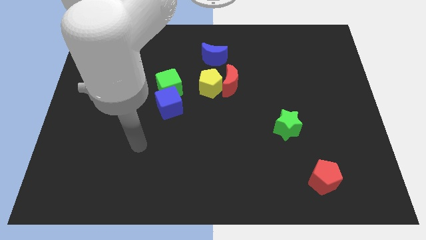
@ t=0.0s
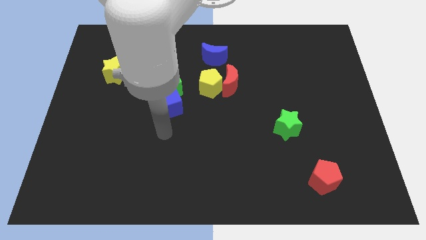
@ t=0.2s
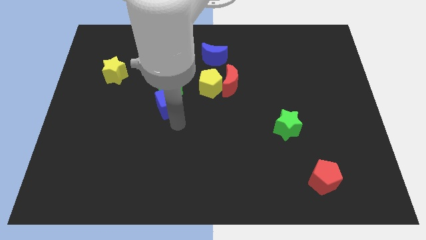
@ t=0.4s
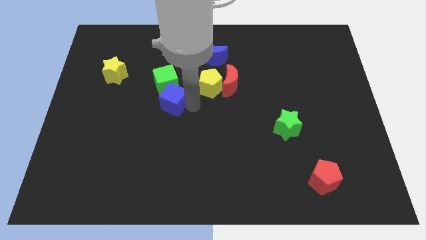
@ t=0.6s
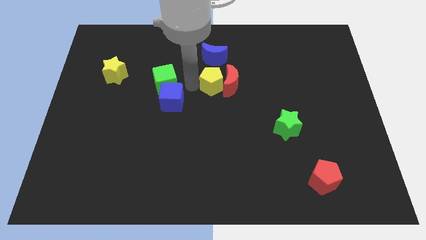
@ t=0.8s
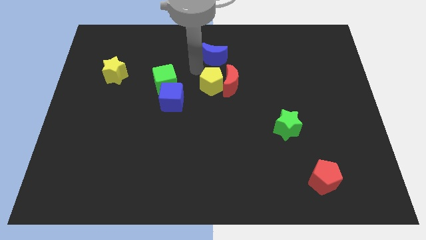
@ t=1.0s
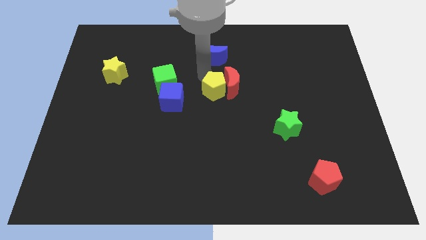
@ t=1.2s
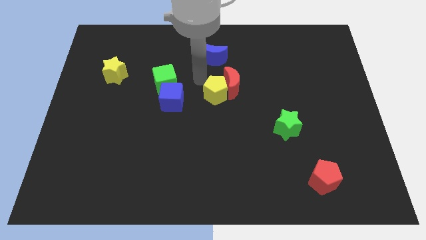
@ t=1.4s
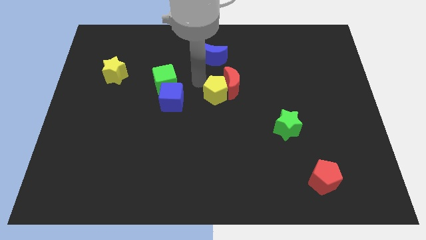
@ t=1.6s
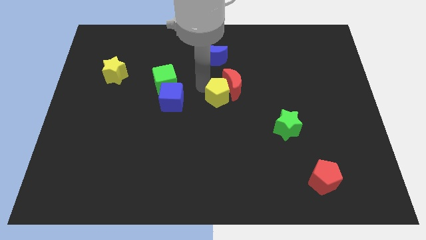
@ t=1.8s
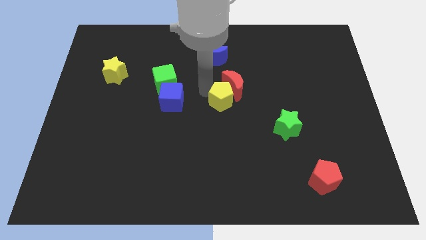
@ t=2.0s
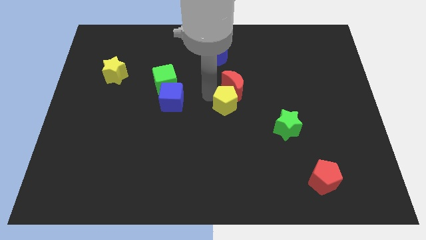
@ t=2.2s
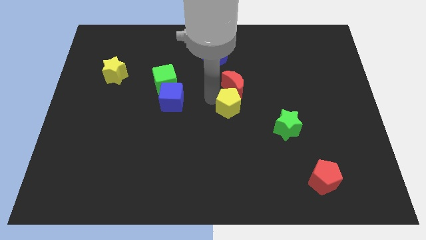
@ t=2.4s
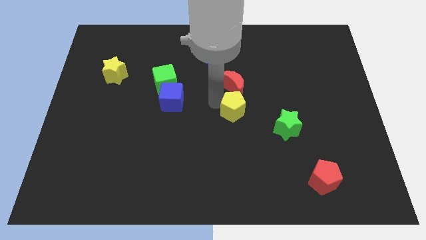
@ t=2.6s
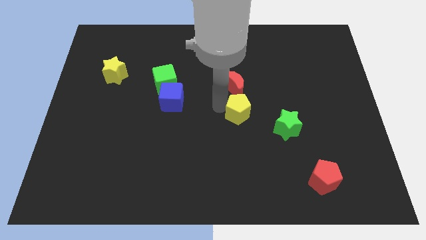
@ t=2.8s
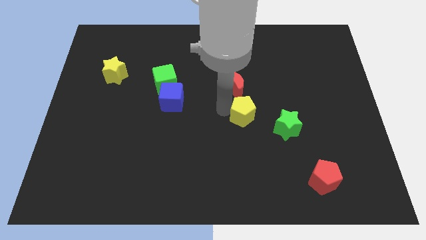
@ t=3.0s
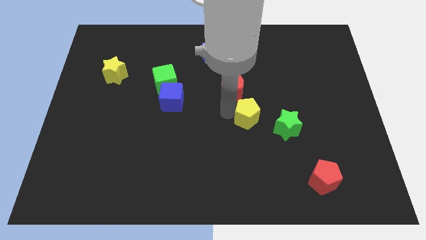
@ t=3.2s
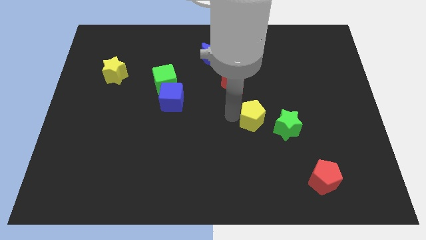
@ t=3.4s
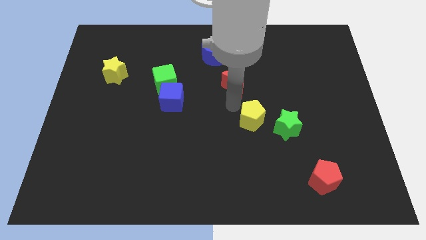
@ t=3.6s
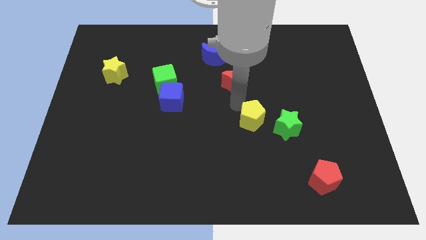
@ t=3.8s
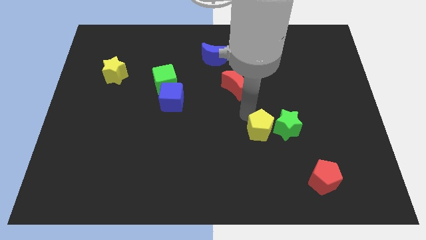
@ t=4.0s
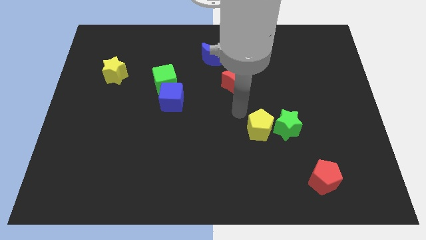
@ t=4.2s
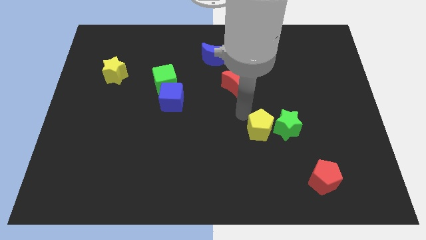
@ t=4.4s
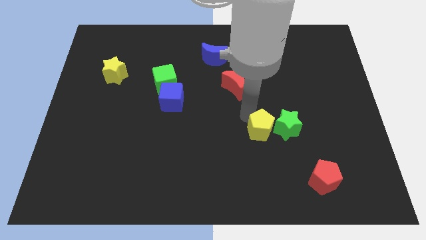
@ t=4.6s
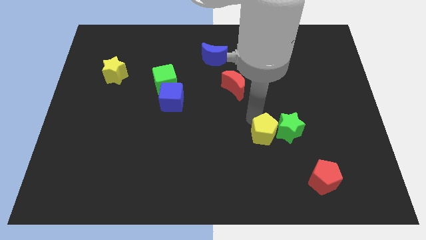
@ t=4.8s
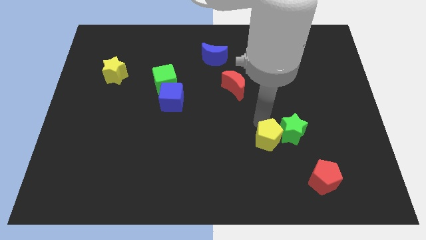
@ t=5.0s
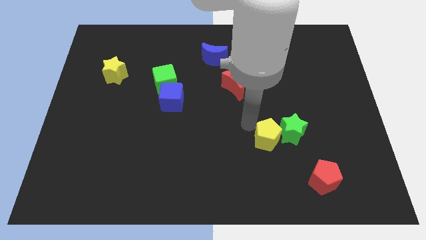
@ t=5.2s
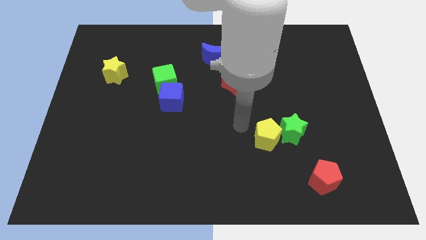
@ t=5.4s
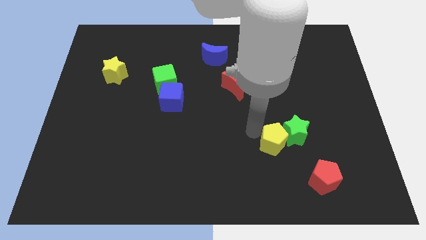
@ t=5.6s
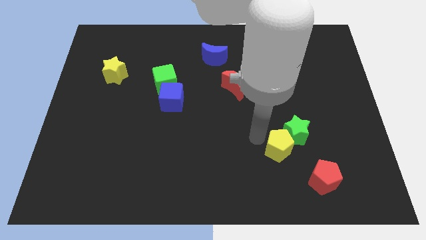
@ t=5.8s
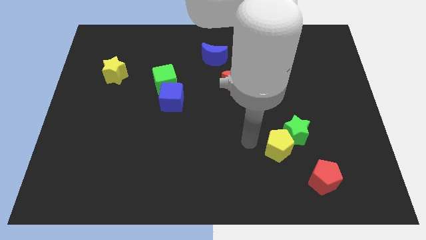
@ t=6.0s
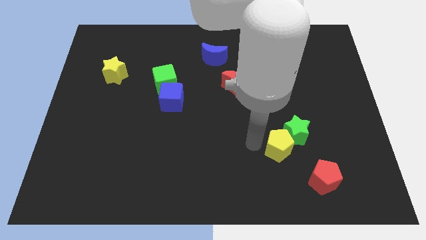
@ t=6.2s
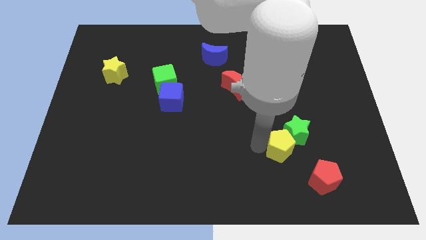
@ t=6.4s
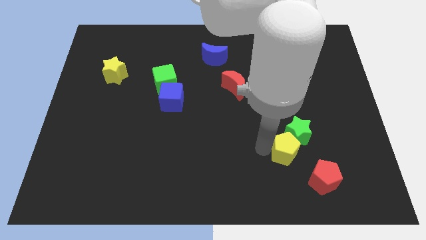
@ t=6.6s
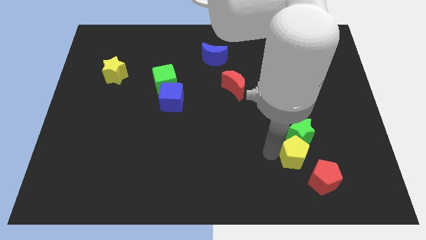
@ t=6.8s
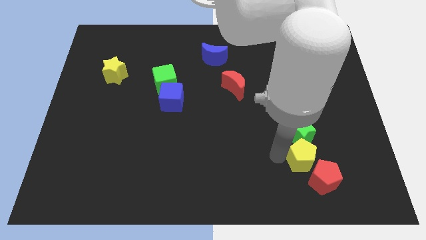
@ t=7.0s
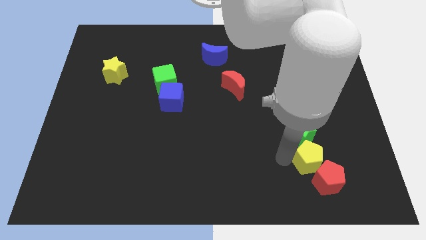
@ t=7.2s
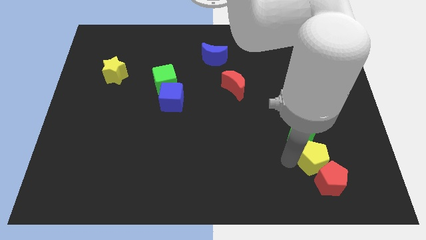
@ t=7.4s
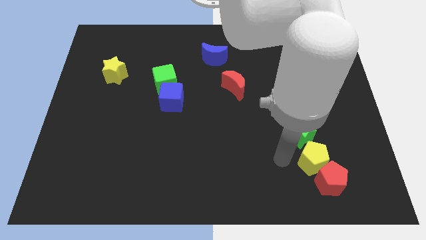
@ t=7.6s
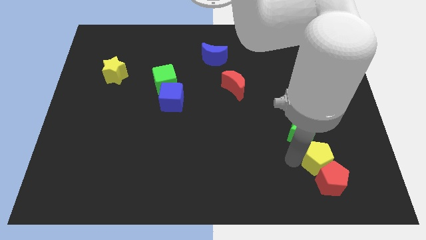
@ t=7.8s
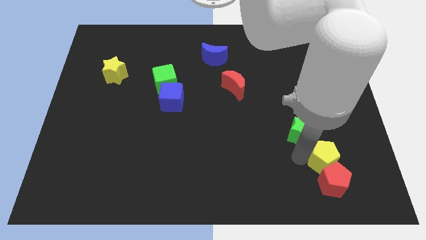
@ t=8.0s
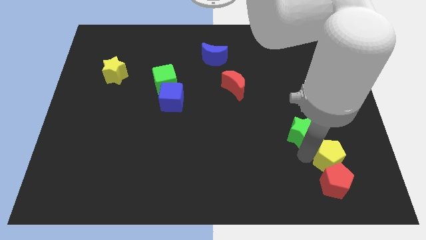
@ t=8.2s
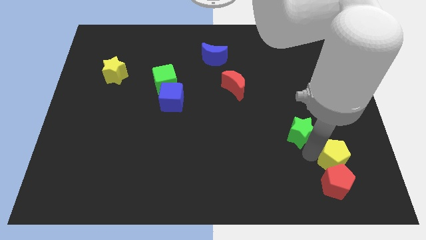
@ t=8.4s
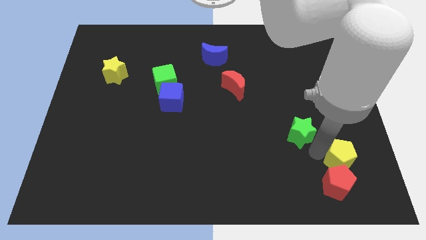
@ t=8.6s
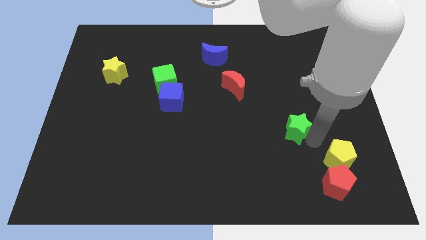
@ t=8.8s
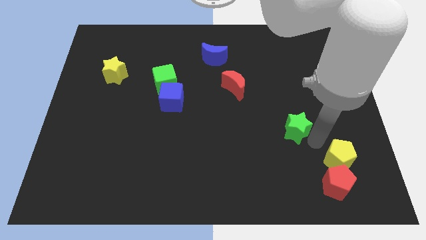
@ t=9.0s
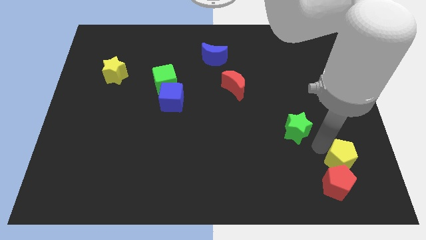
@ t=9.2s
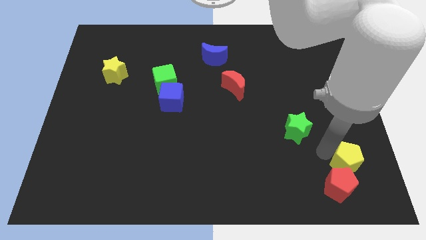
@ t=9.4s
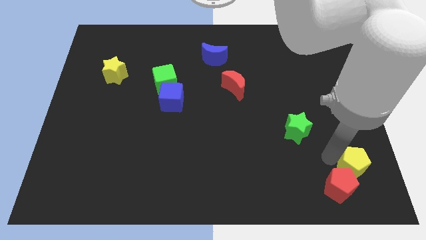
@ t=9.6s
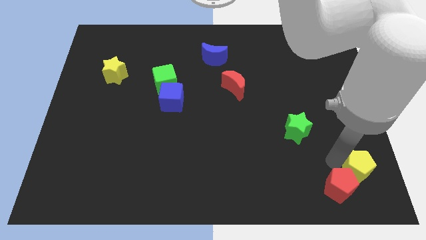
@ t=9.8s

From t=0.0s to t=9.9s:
slide the yellow pentagon to the bottom right

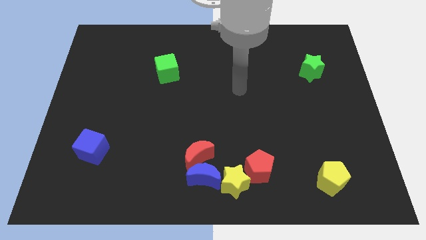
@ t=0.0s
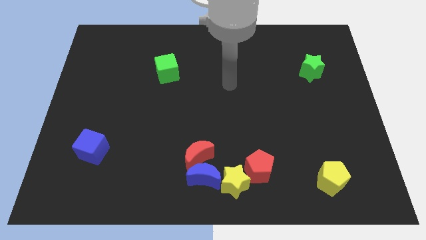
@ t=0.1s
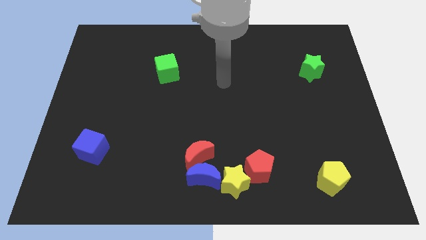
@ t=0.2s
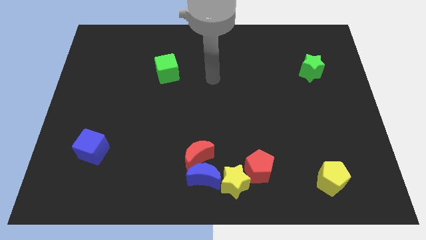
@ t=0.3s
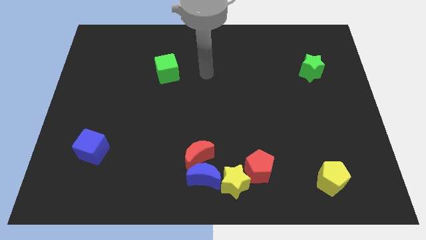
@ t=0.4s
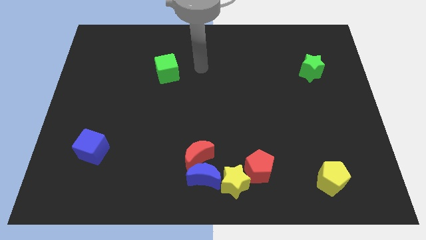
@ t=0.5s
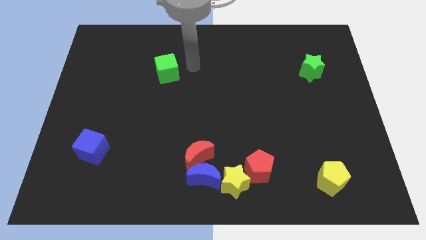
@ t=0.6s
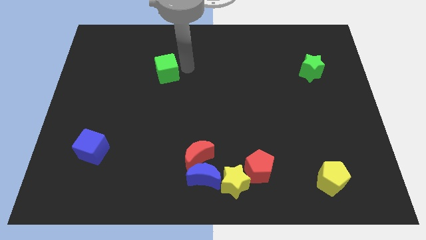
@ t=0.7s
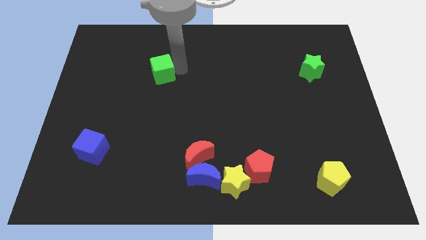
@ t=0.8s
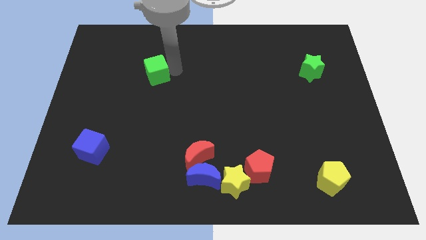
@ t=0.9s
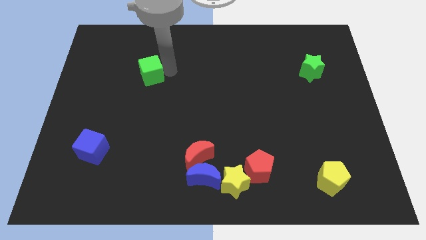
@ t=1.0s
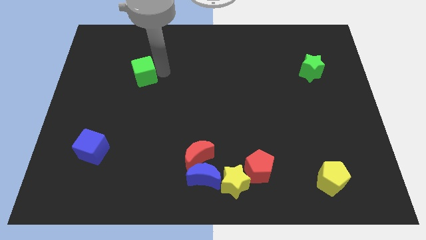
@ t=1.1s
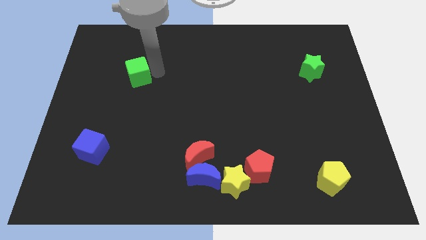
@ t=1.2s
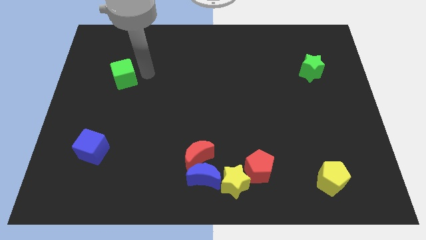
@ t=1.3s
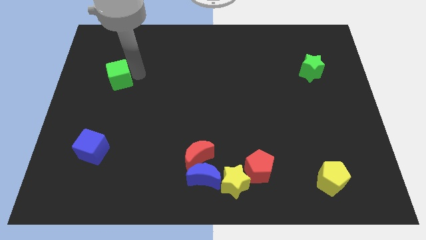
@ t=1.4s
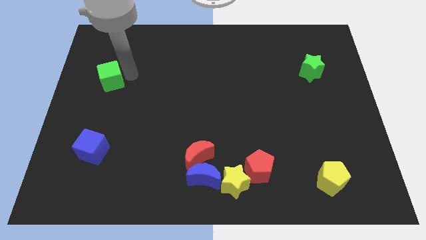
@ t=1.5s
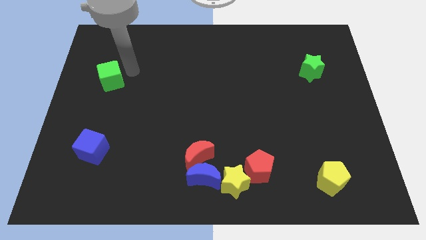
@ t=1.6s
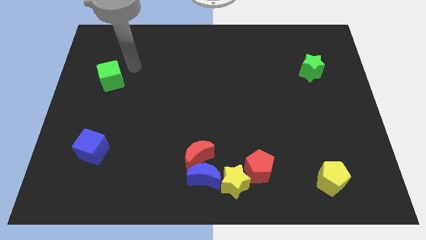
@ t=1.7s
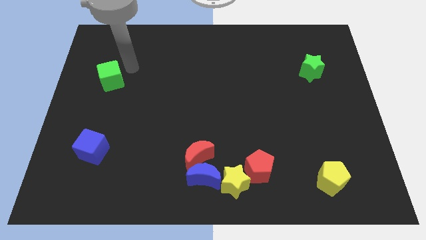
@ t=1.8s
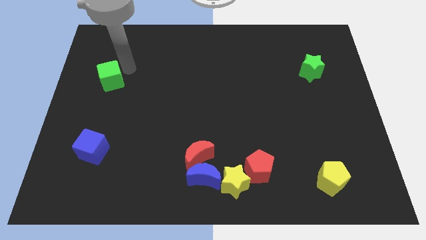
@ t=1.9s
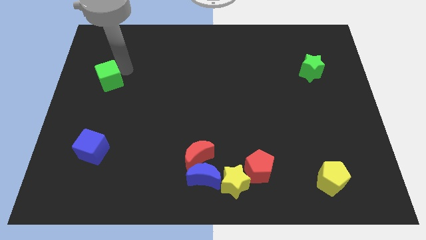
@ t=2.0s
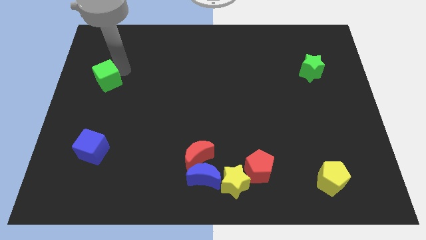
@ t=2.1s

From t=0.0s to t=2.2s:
push the green cube to the left side
